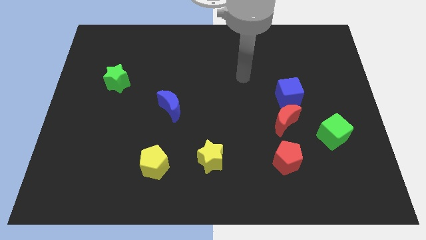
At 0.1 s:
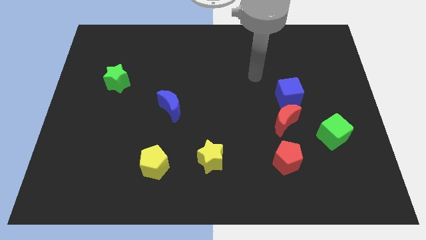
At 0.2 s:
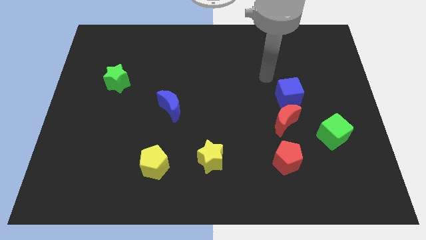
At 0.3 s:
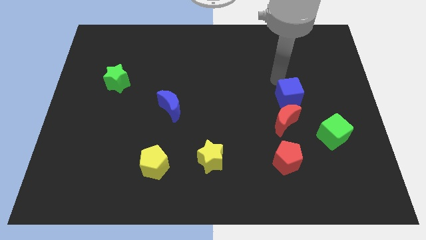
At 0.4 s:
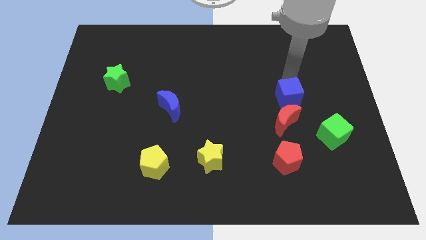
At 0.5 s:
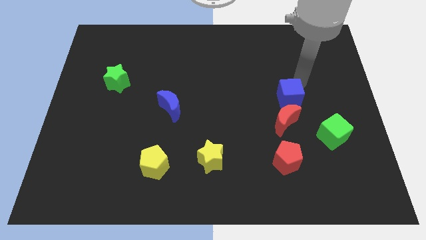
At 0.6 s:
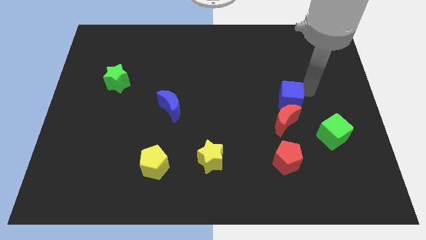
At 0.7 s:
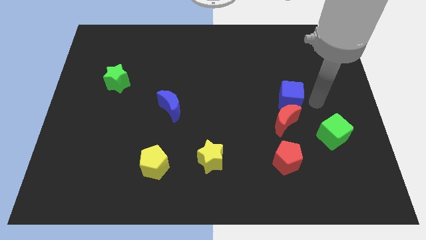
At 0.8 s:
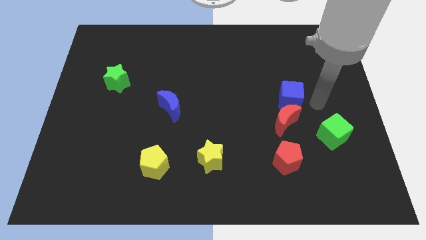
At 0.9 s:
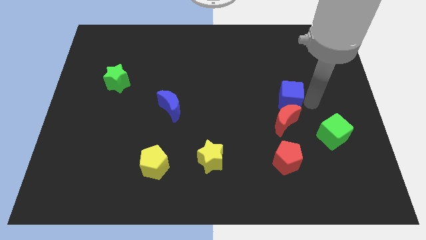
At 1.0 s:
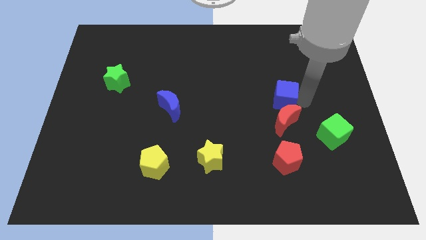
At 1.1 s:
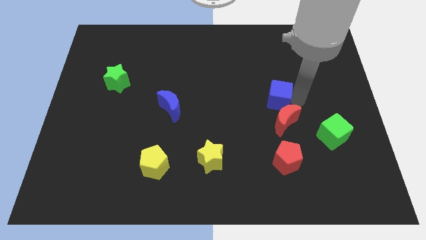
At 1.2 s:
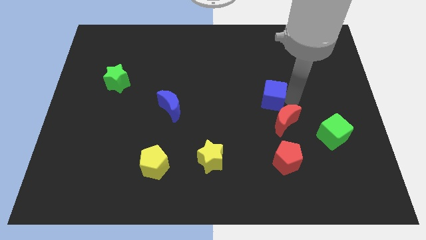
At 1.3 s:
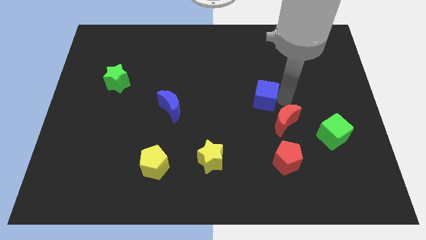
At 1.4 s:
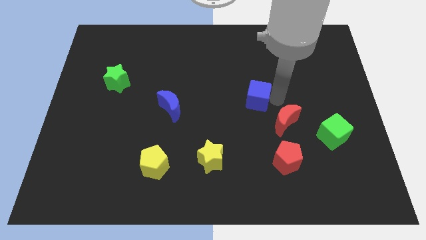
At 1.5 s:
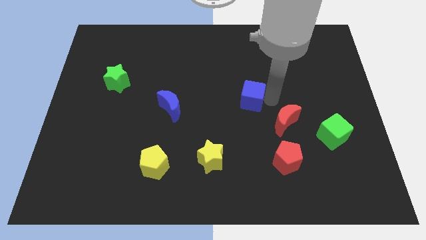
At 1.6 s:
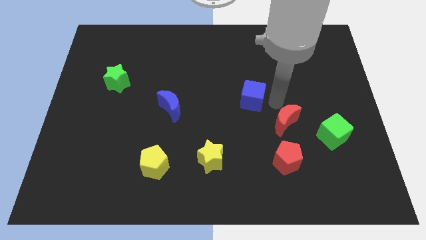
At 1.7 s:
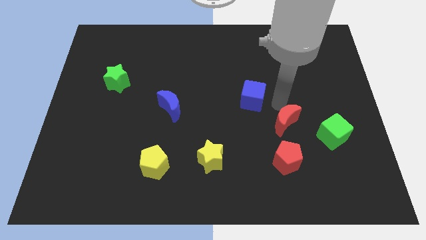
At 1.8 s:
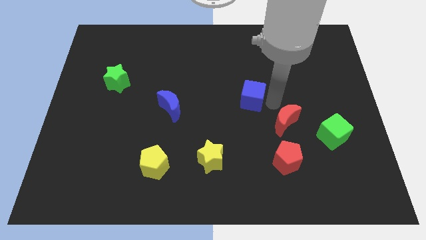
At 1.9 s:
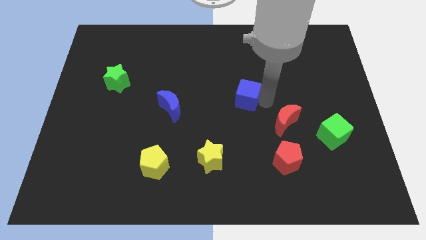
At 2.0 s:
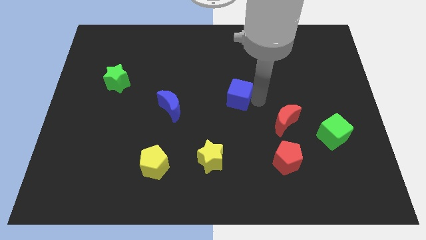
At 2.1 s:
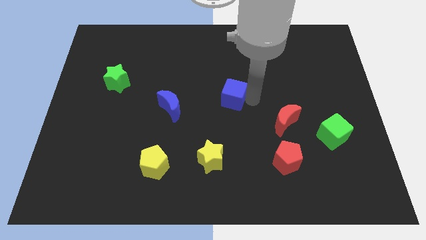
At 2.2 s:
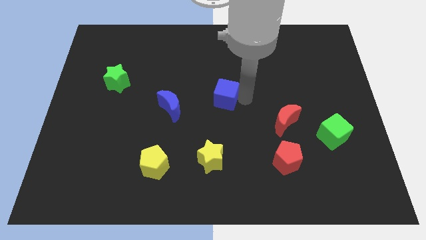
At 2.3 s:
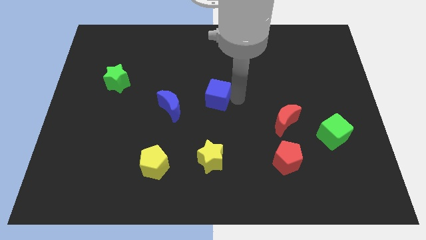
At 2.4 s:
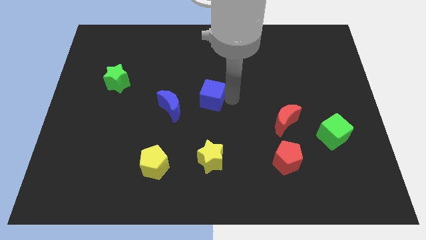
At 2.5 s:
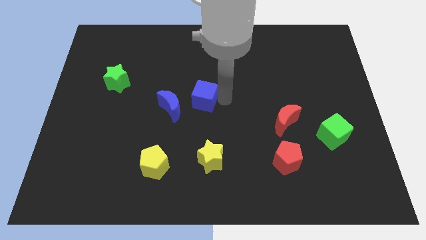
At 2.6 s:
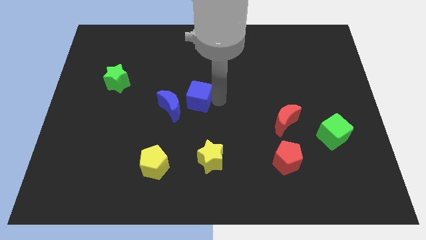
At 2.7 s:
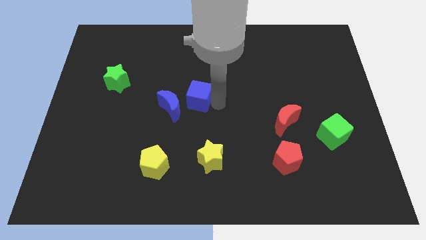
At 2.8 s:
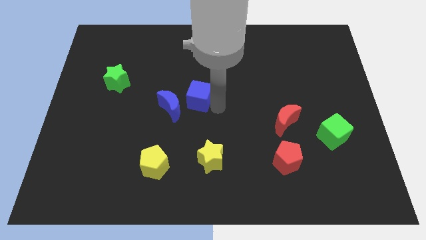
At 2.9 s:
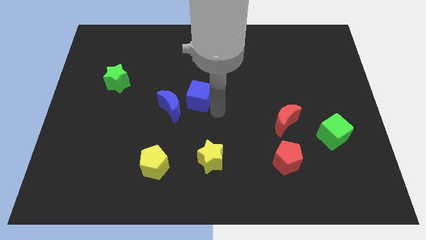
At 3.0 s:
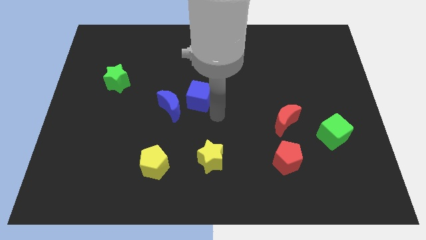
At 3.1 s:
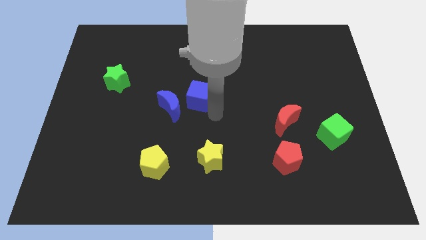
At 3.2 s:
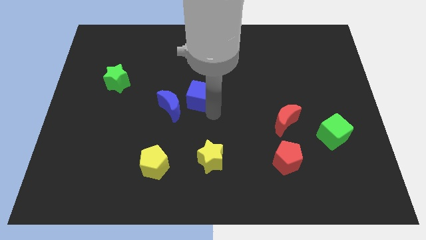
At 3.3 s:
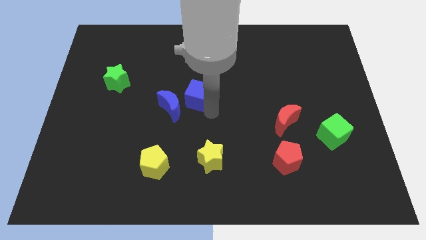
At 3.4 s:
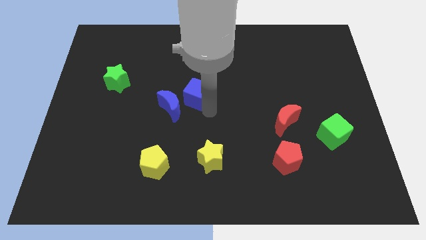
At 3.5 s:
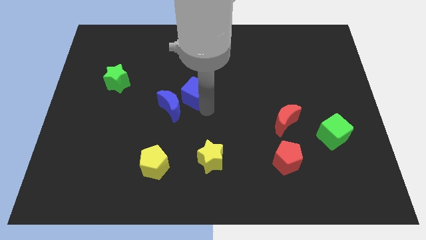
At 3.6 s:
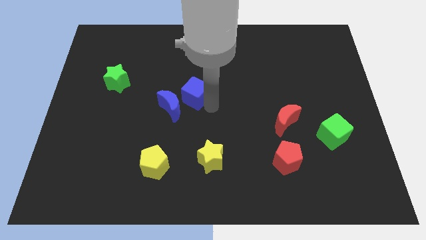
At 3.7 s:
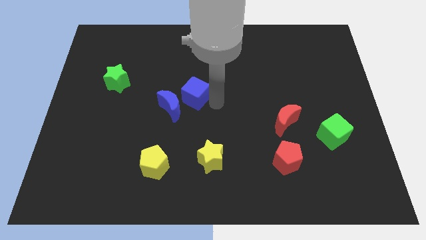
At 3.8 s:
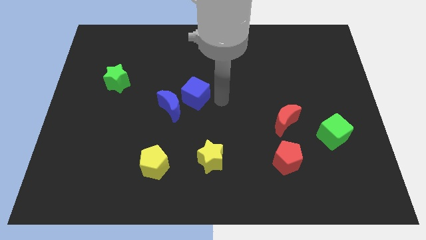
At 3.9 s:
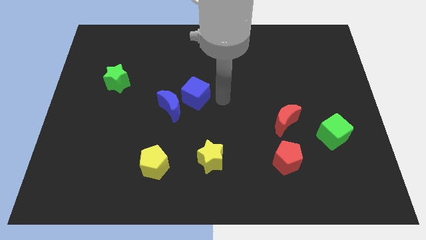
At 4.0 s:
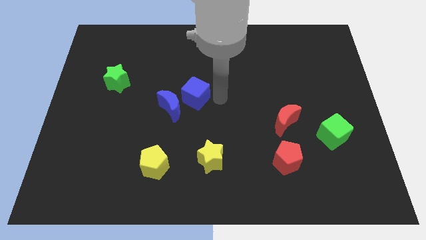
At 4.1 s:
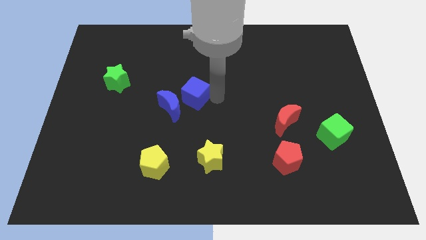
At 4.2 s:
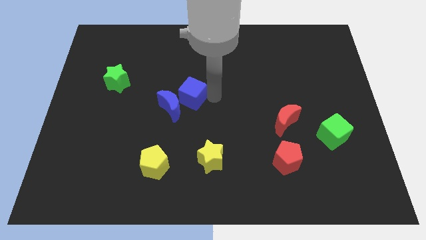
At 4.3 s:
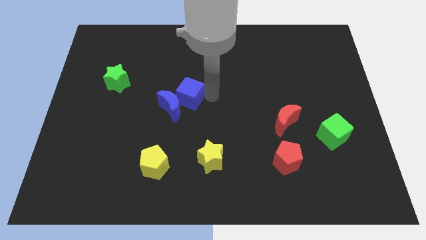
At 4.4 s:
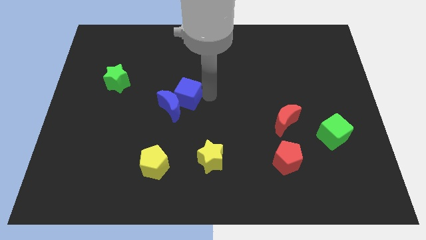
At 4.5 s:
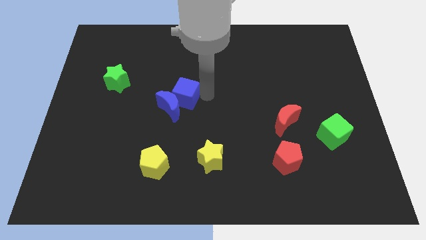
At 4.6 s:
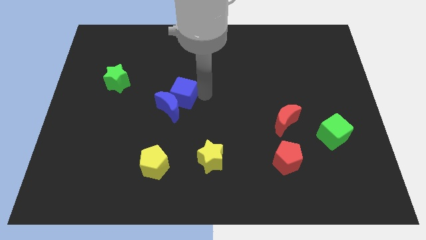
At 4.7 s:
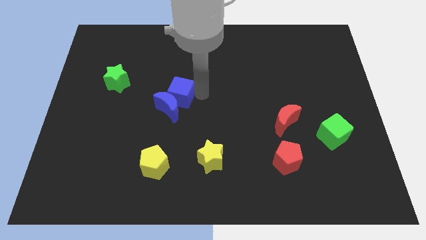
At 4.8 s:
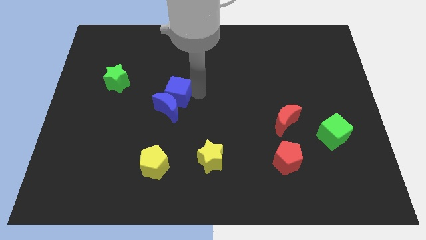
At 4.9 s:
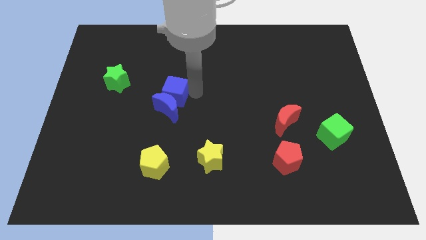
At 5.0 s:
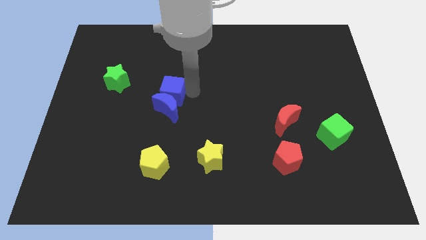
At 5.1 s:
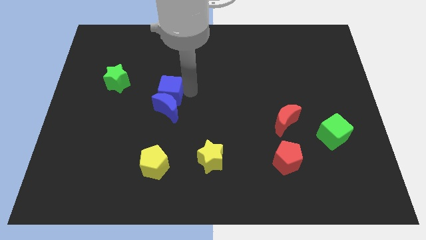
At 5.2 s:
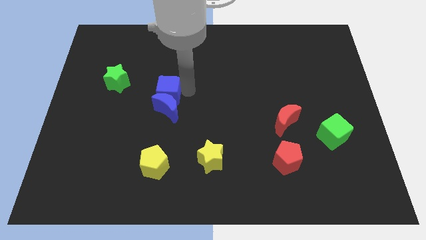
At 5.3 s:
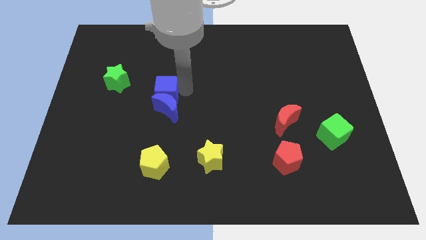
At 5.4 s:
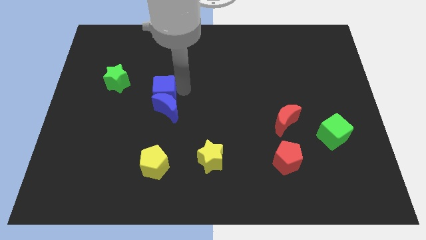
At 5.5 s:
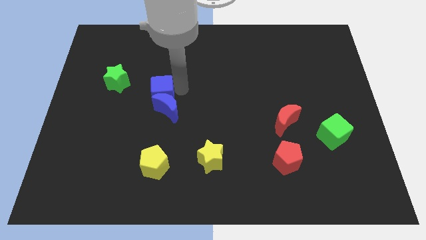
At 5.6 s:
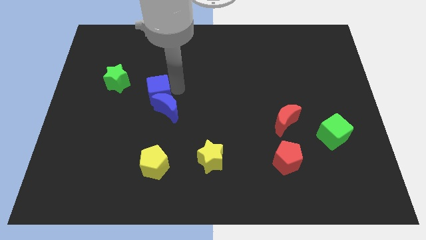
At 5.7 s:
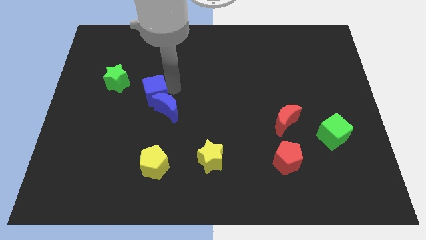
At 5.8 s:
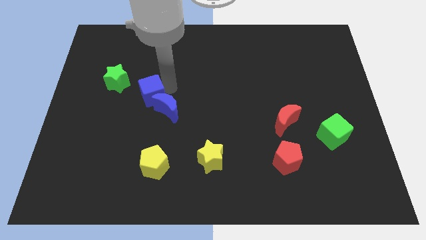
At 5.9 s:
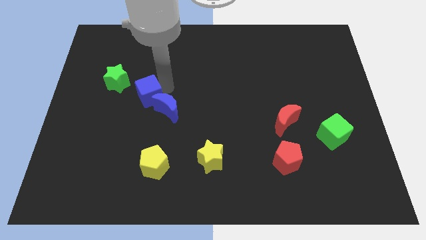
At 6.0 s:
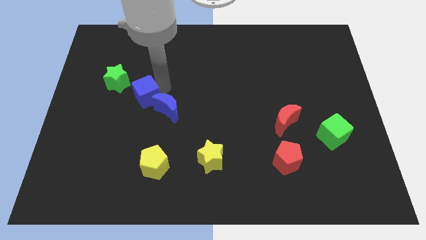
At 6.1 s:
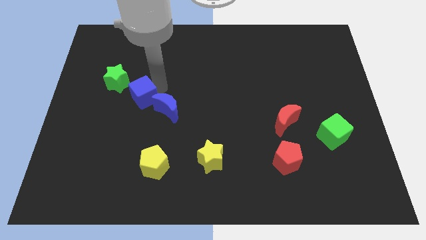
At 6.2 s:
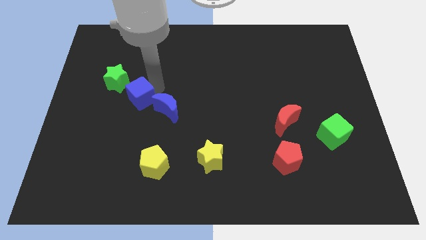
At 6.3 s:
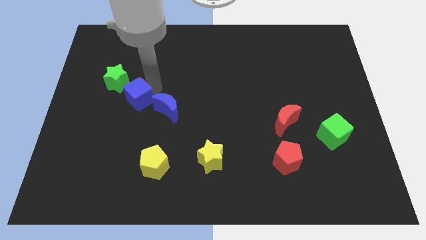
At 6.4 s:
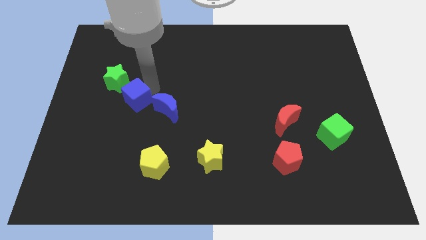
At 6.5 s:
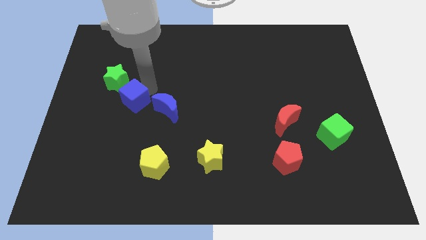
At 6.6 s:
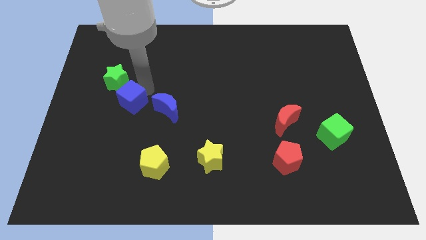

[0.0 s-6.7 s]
move the blue cube to the bottom side of the green star

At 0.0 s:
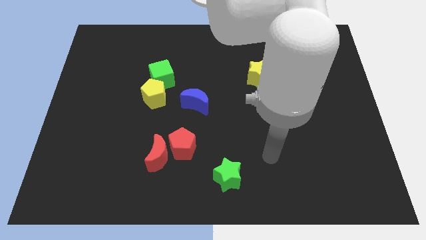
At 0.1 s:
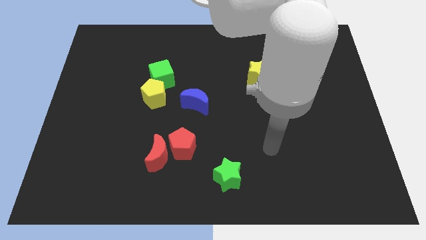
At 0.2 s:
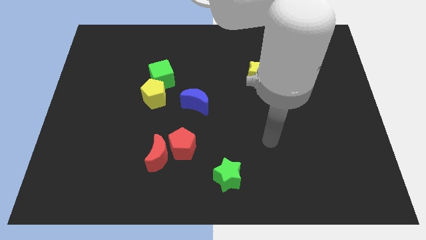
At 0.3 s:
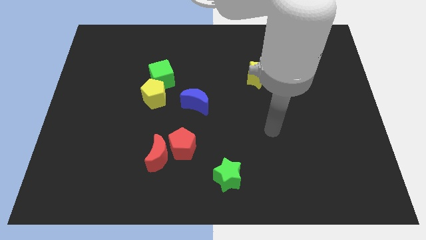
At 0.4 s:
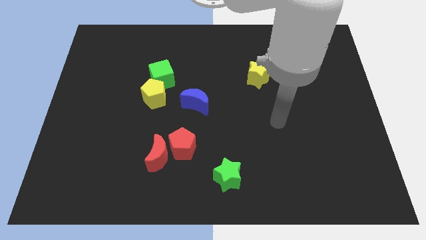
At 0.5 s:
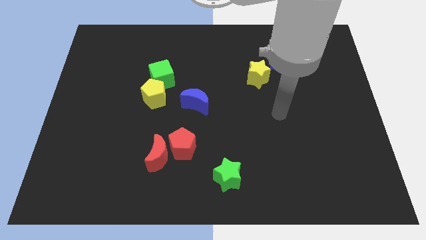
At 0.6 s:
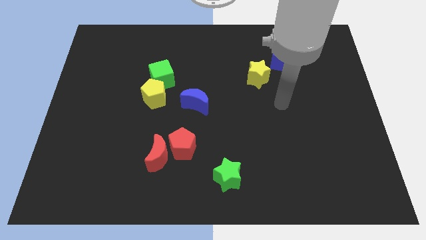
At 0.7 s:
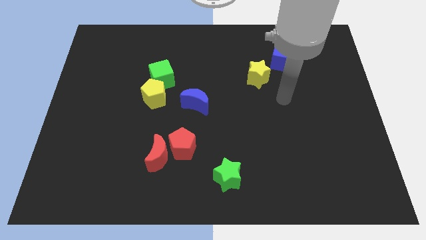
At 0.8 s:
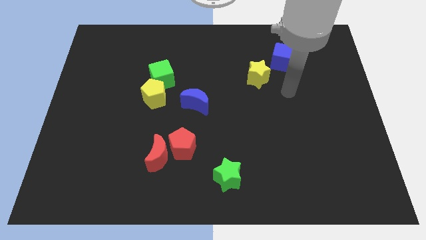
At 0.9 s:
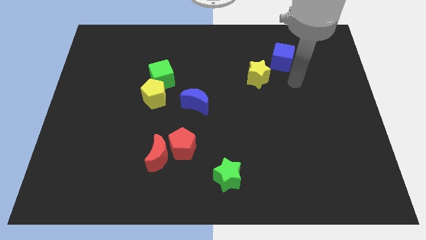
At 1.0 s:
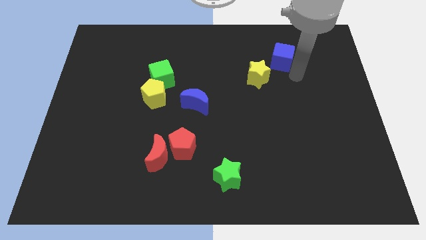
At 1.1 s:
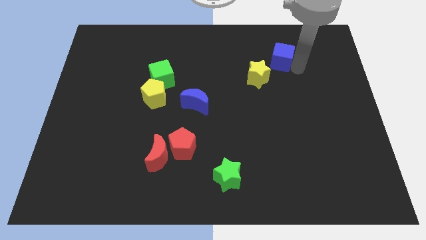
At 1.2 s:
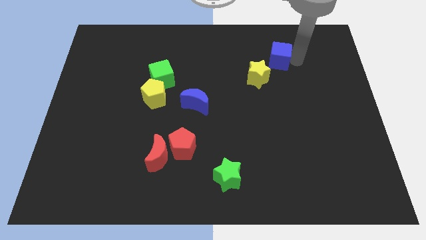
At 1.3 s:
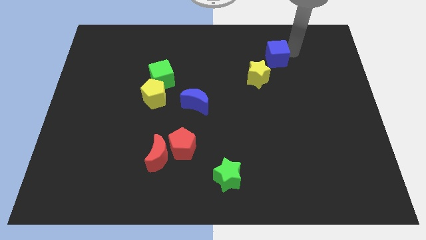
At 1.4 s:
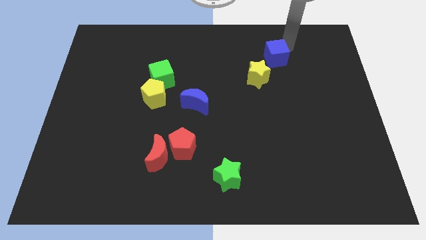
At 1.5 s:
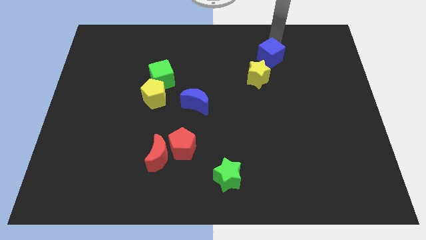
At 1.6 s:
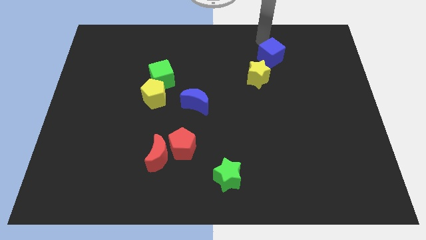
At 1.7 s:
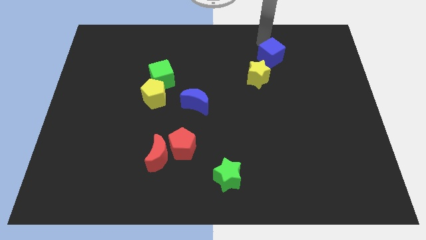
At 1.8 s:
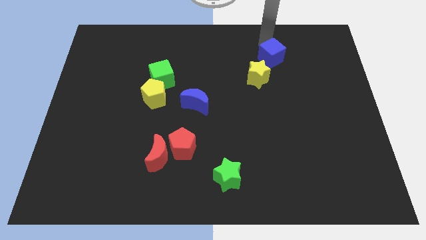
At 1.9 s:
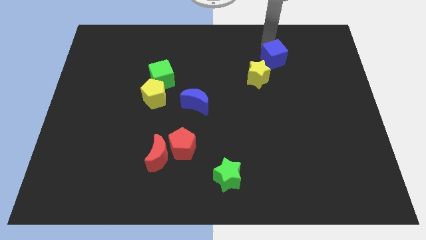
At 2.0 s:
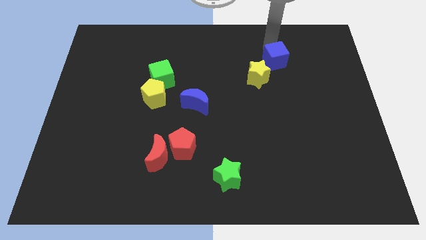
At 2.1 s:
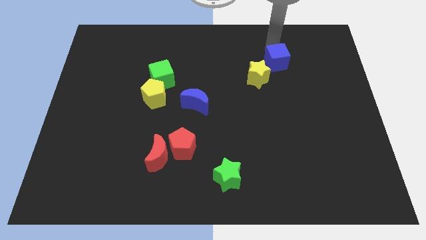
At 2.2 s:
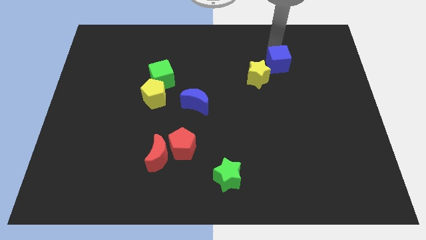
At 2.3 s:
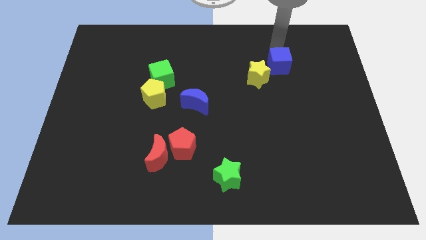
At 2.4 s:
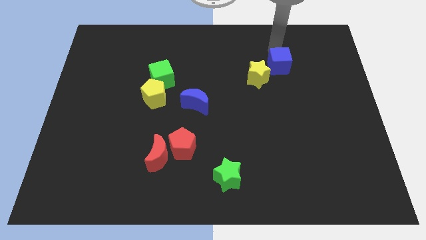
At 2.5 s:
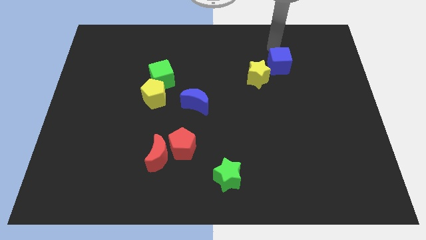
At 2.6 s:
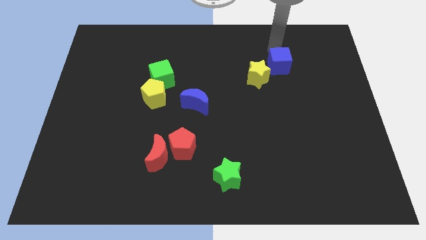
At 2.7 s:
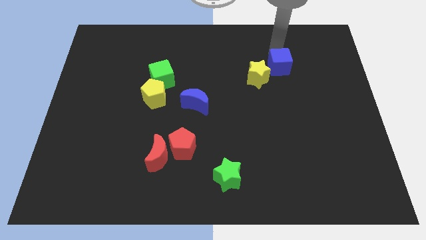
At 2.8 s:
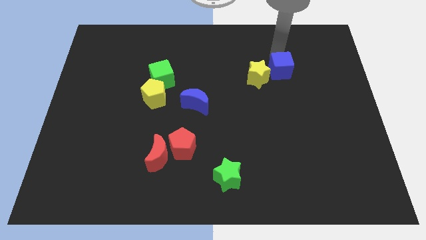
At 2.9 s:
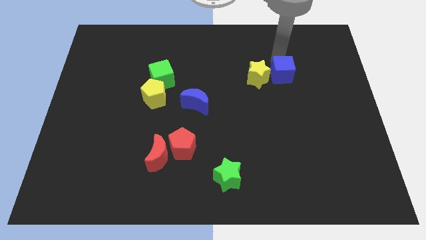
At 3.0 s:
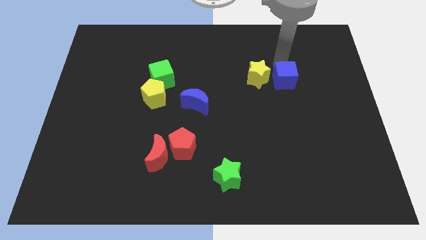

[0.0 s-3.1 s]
push the blue cube to the bottom right of the yellow star
